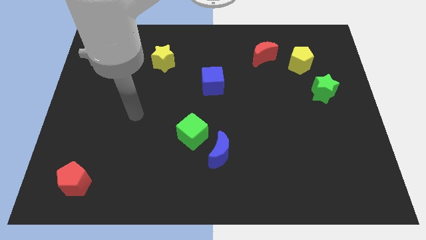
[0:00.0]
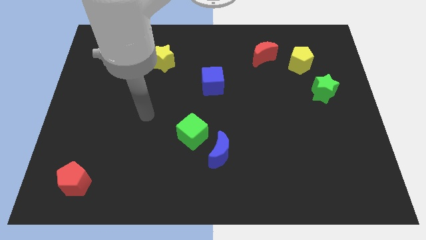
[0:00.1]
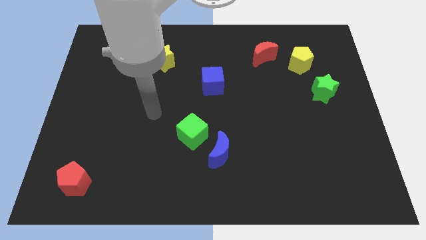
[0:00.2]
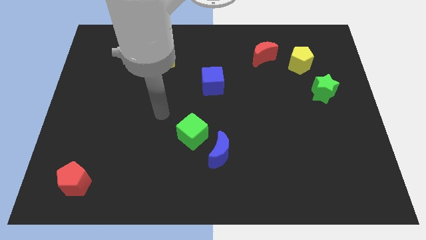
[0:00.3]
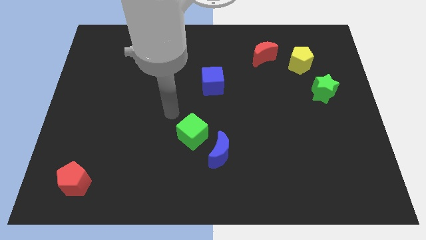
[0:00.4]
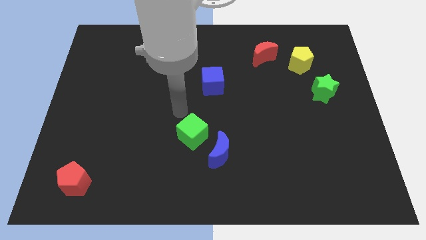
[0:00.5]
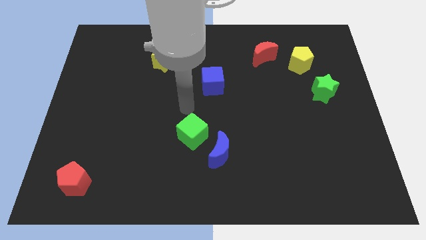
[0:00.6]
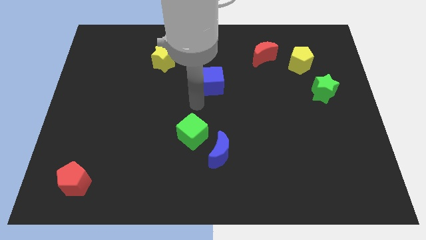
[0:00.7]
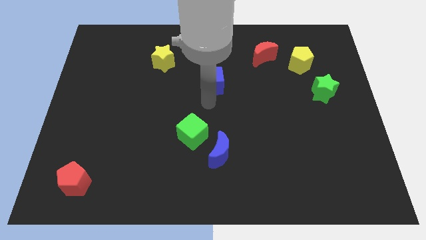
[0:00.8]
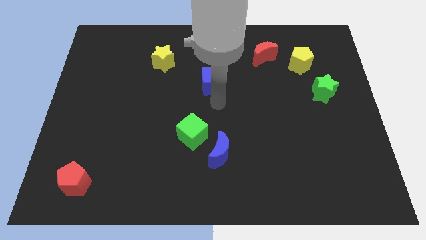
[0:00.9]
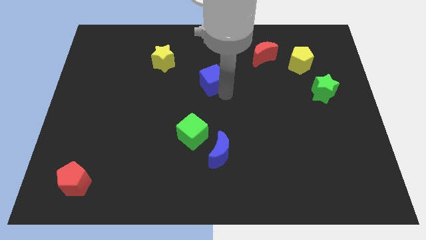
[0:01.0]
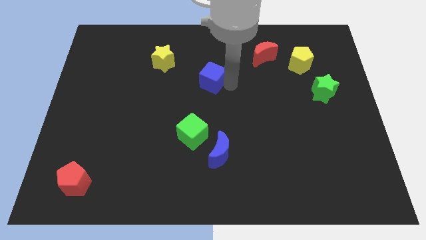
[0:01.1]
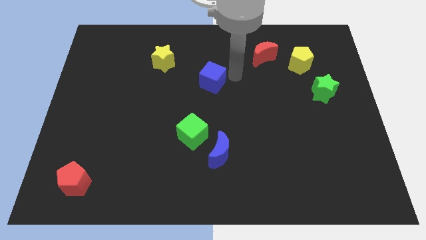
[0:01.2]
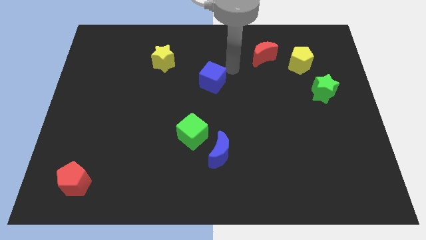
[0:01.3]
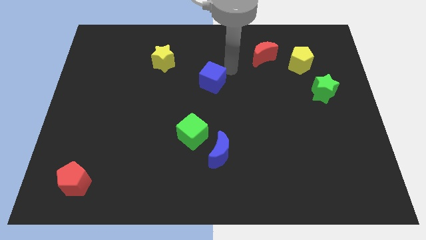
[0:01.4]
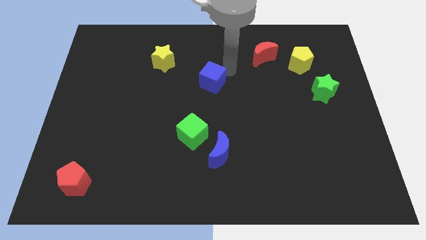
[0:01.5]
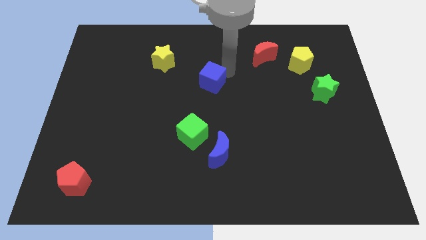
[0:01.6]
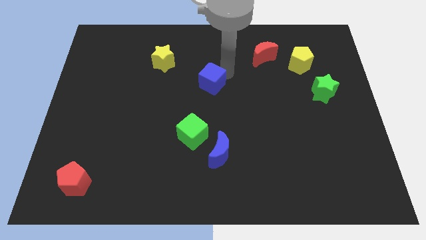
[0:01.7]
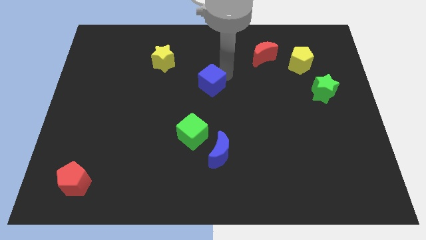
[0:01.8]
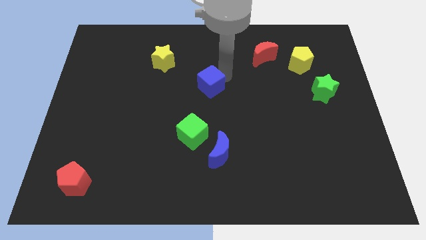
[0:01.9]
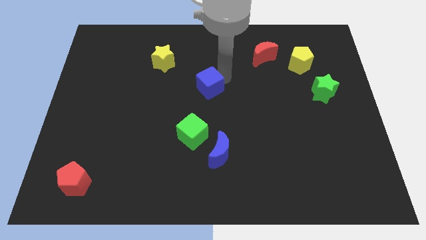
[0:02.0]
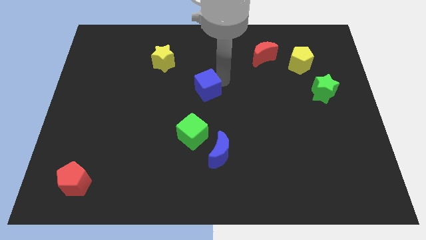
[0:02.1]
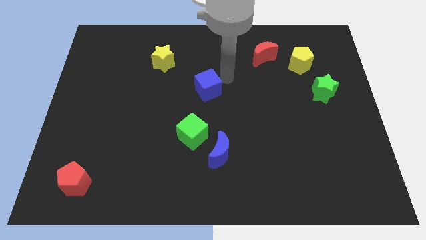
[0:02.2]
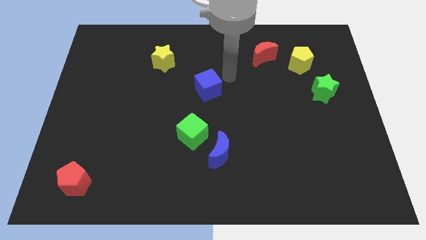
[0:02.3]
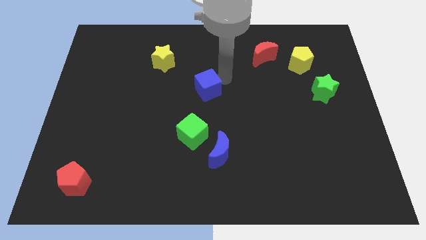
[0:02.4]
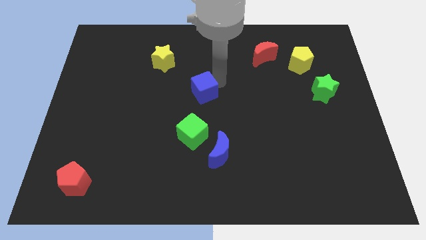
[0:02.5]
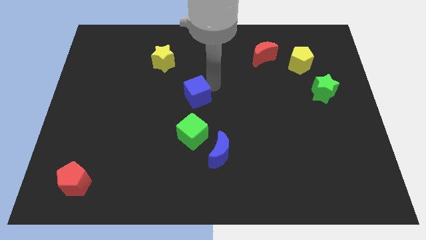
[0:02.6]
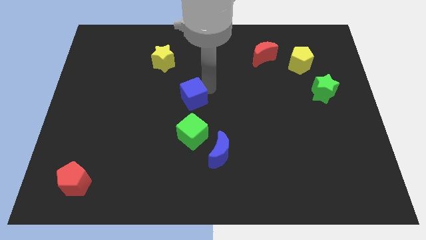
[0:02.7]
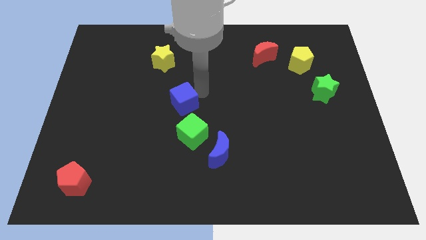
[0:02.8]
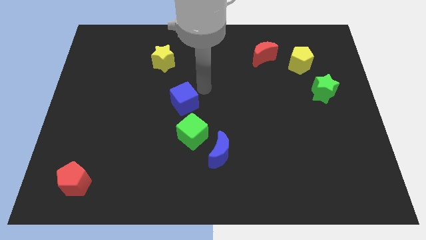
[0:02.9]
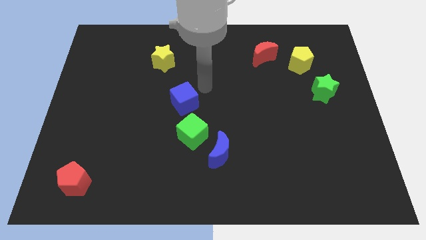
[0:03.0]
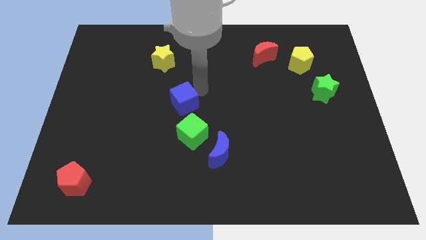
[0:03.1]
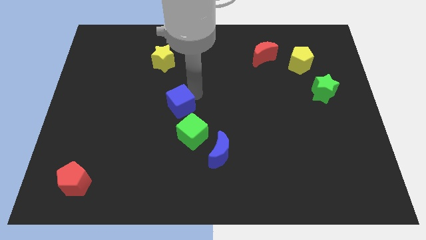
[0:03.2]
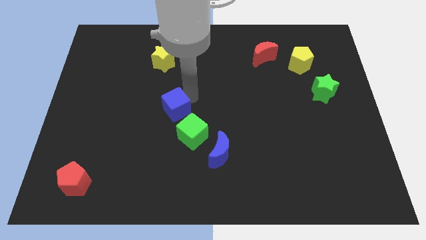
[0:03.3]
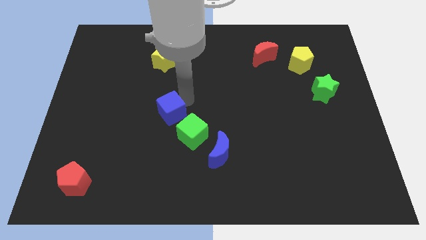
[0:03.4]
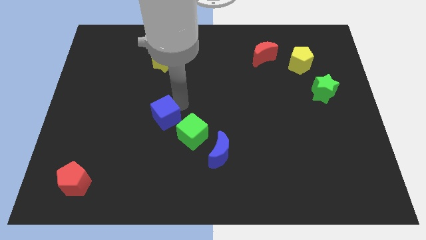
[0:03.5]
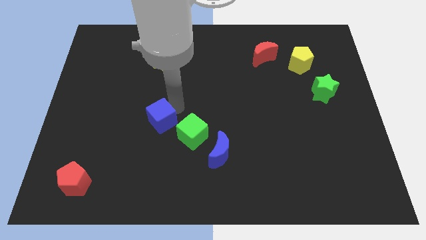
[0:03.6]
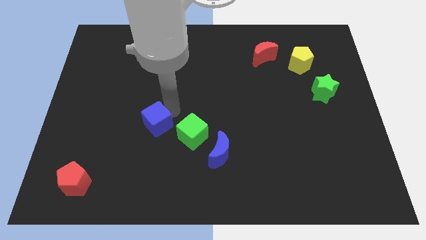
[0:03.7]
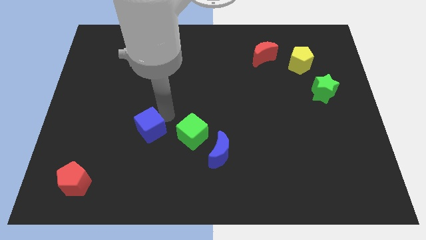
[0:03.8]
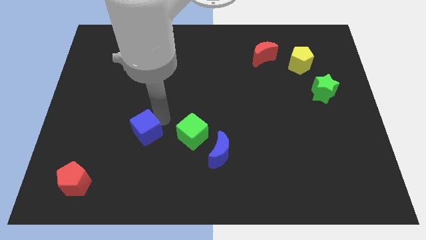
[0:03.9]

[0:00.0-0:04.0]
push the blue cube down and then to the left

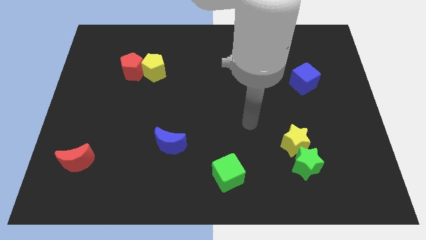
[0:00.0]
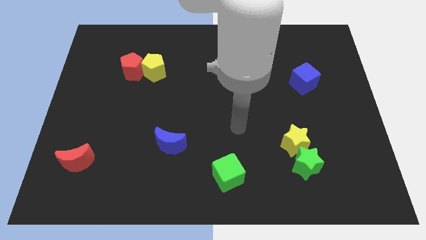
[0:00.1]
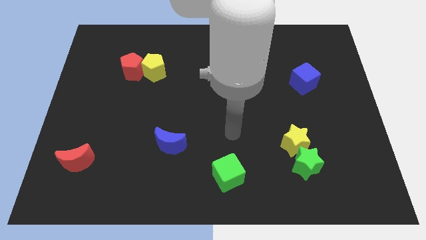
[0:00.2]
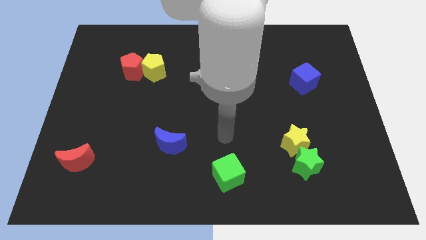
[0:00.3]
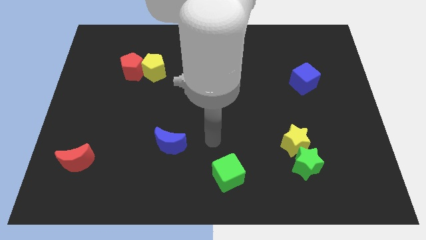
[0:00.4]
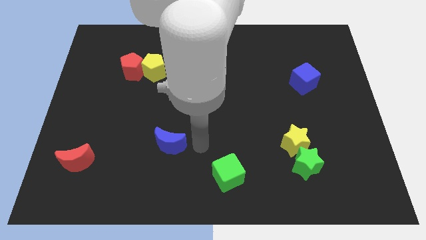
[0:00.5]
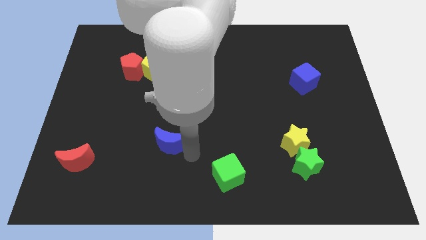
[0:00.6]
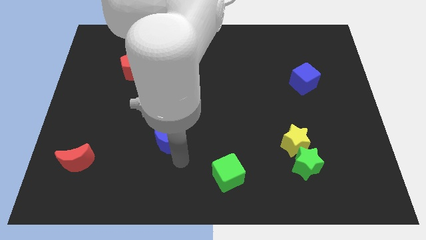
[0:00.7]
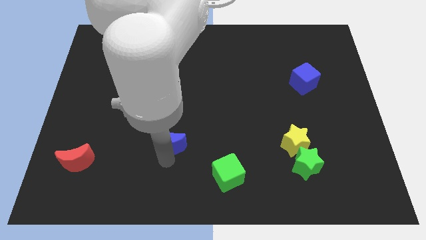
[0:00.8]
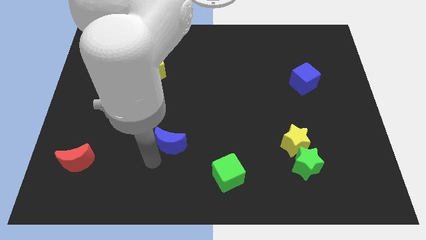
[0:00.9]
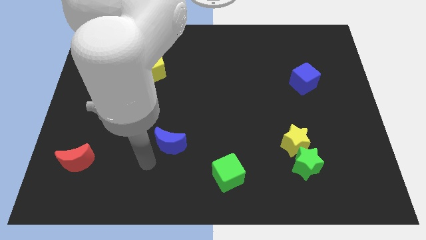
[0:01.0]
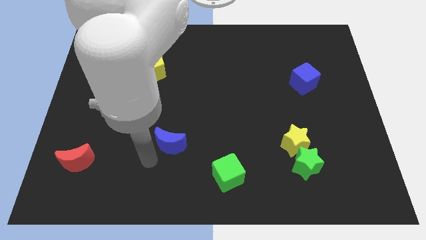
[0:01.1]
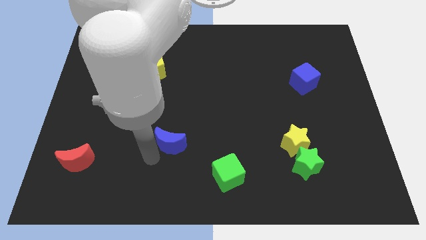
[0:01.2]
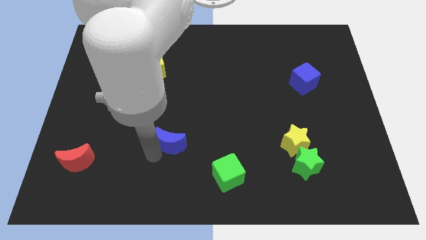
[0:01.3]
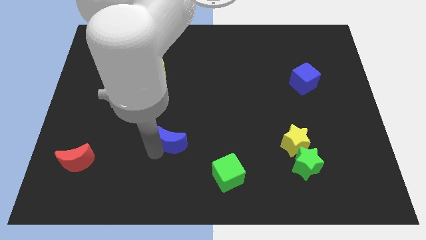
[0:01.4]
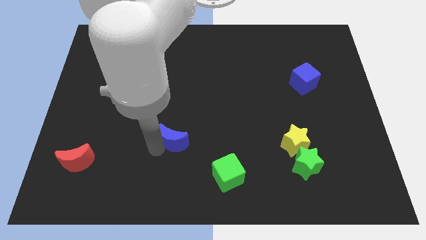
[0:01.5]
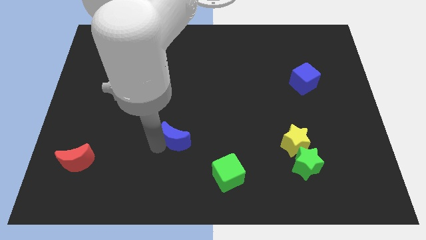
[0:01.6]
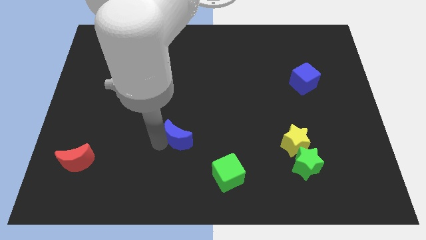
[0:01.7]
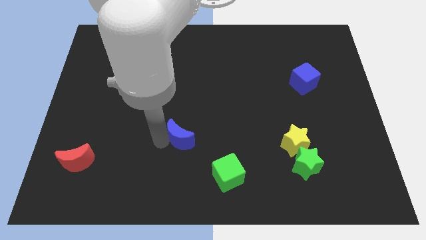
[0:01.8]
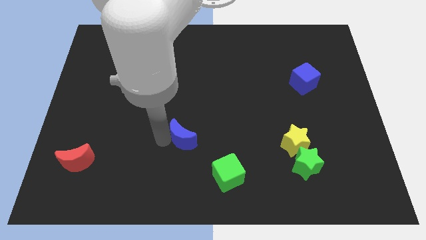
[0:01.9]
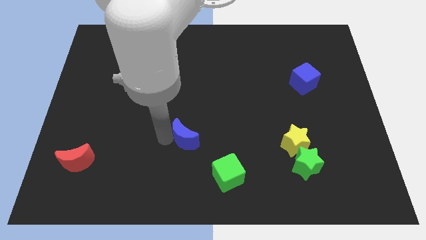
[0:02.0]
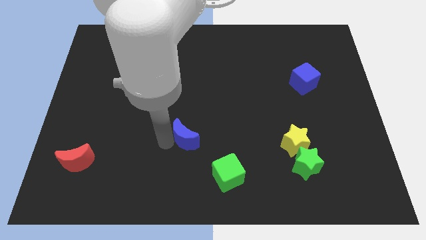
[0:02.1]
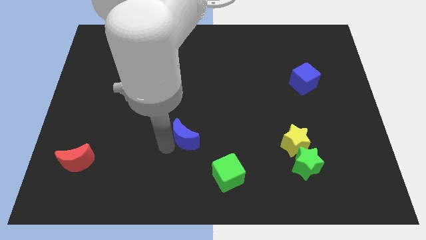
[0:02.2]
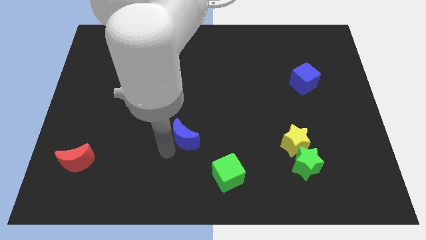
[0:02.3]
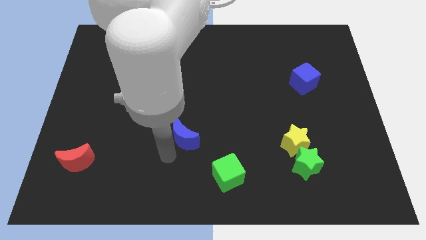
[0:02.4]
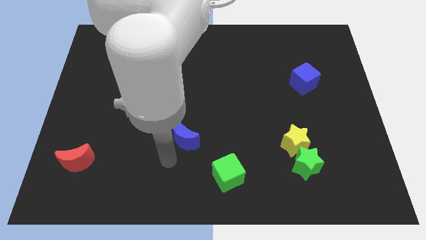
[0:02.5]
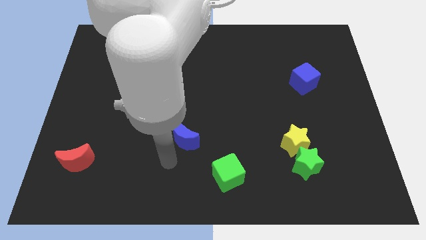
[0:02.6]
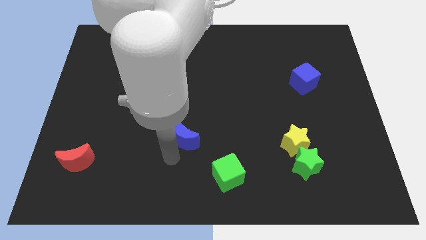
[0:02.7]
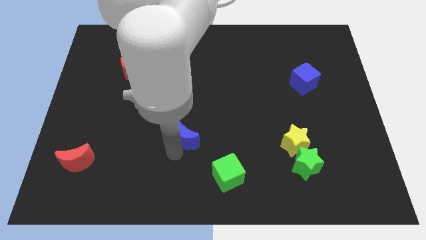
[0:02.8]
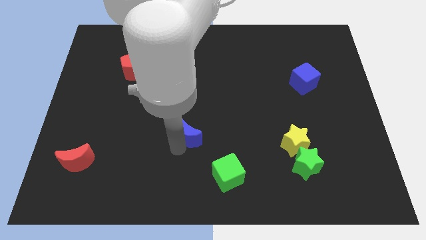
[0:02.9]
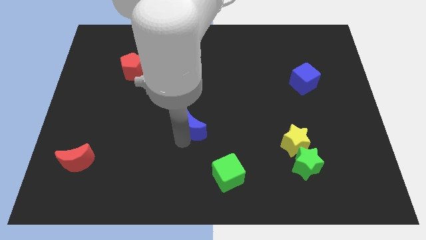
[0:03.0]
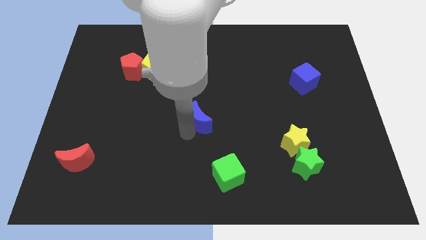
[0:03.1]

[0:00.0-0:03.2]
push the blue moon a little upwards and then to the right

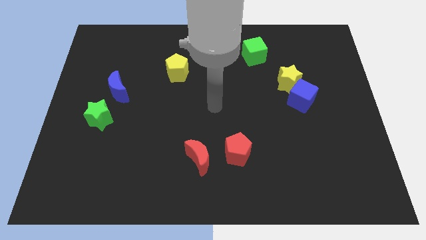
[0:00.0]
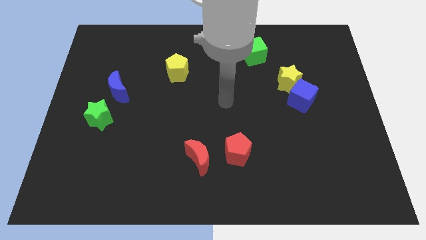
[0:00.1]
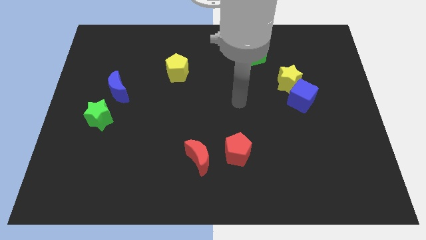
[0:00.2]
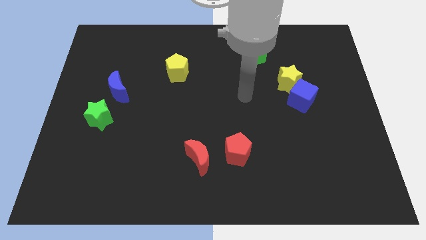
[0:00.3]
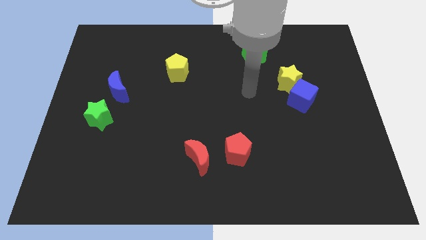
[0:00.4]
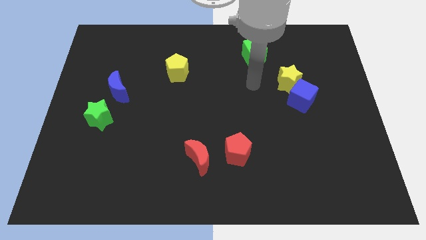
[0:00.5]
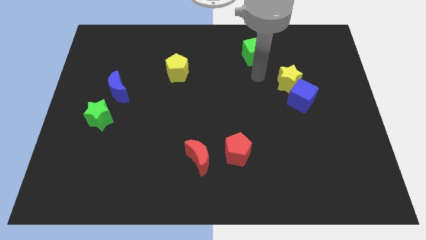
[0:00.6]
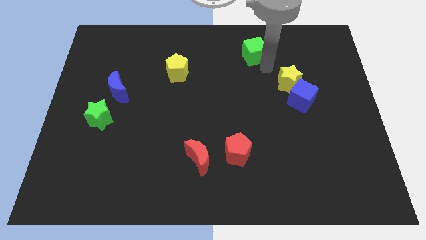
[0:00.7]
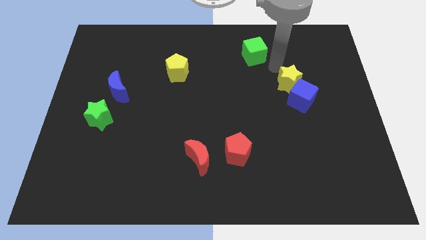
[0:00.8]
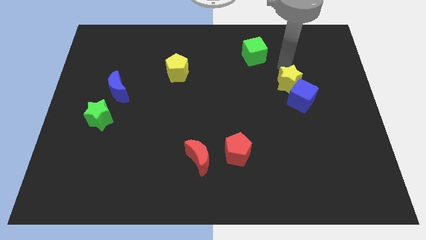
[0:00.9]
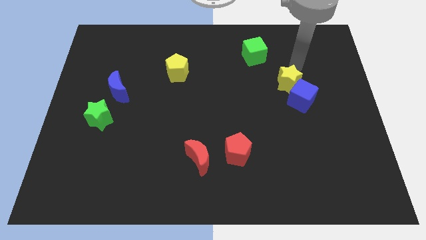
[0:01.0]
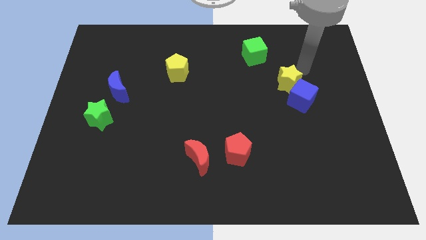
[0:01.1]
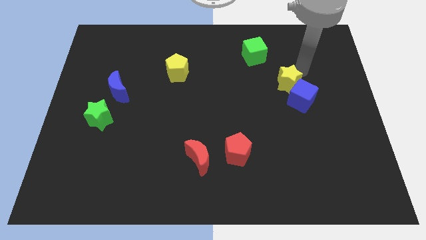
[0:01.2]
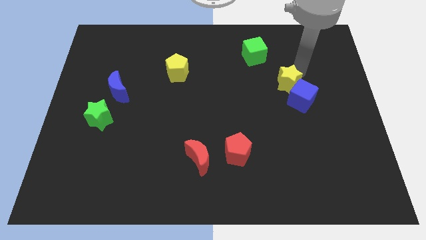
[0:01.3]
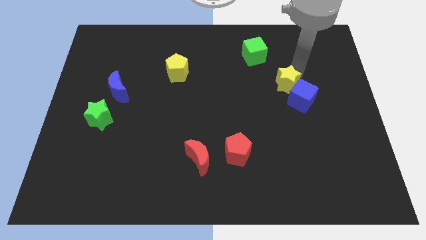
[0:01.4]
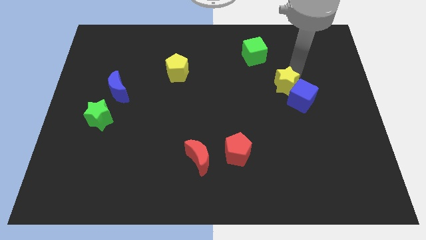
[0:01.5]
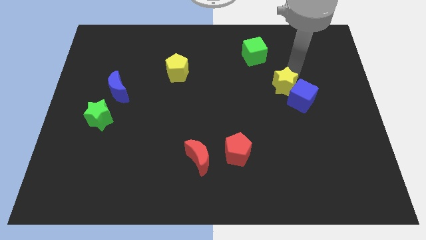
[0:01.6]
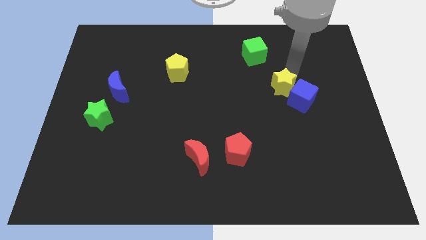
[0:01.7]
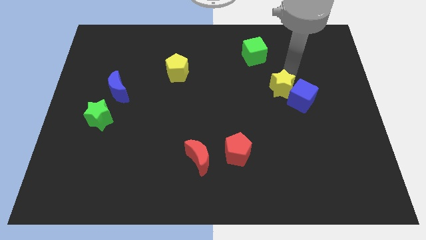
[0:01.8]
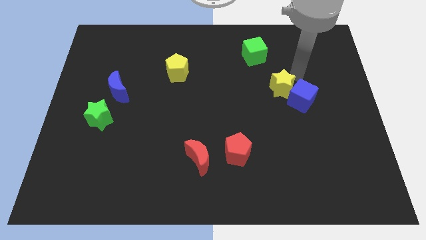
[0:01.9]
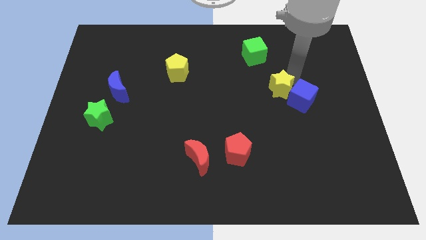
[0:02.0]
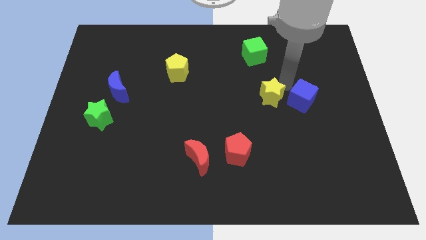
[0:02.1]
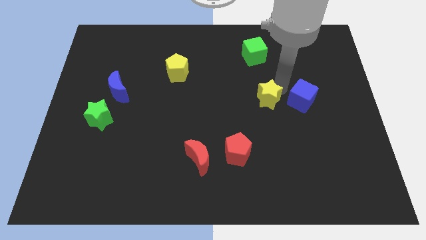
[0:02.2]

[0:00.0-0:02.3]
slightly move the yellow star down and to the left diagonally
